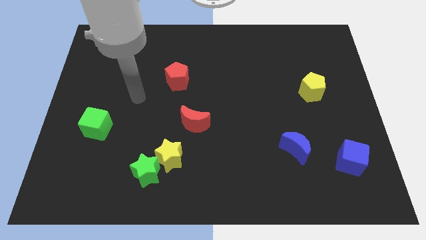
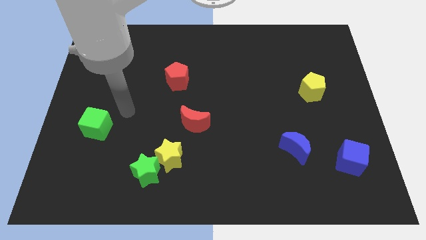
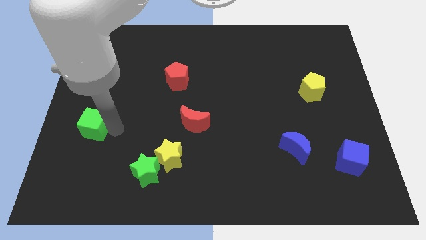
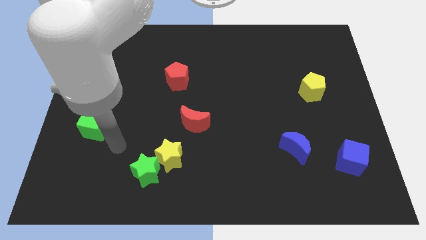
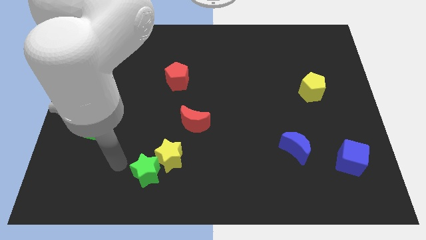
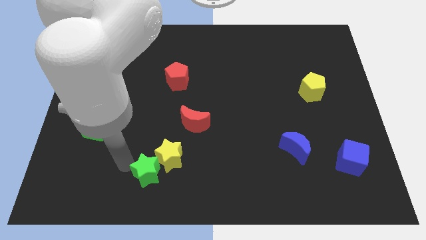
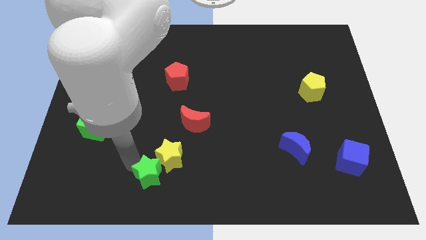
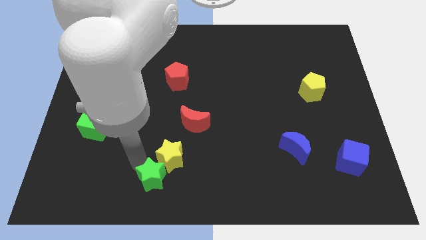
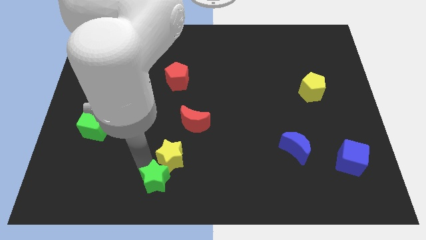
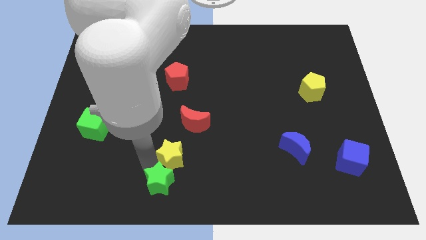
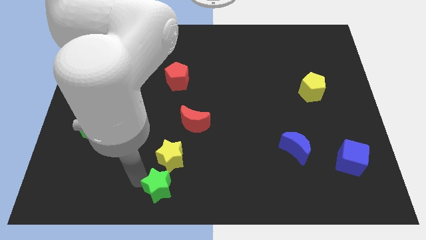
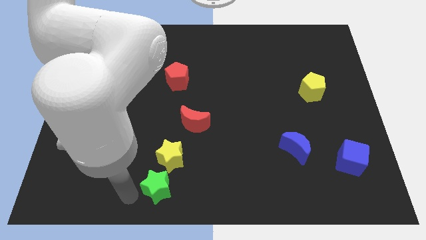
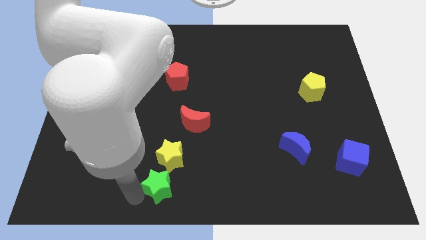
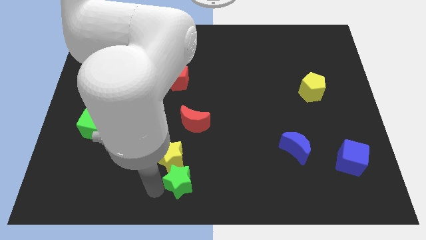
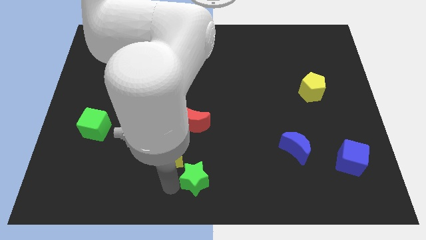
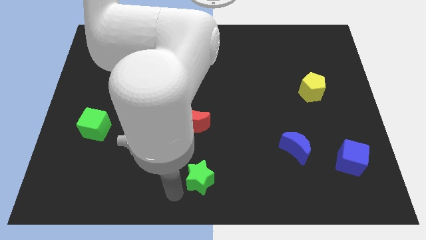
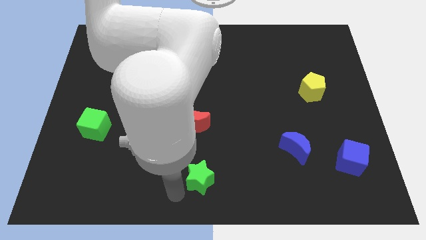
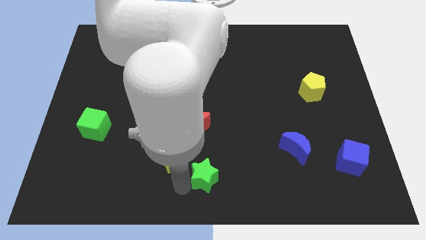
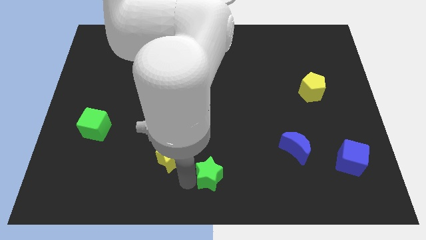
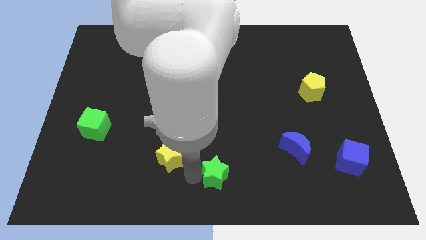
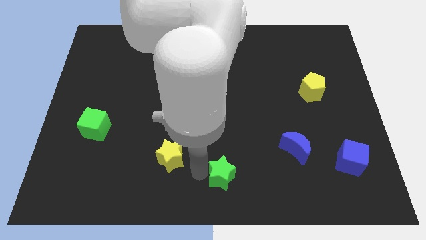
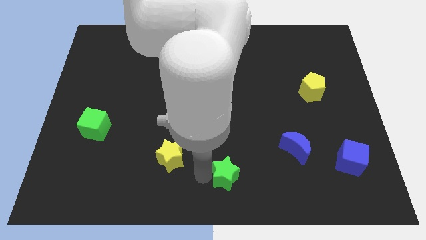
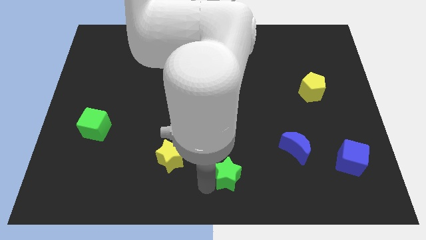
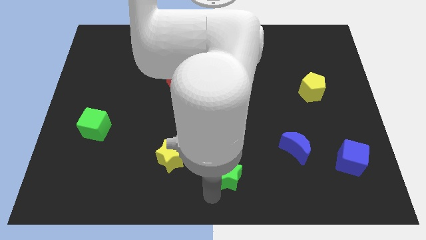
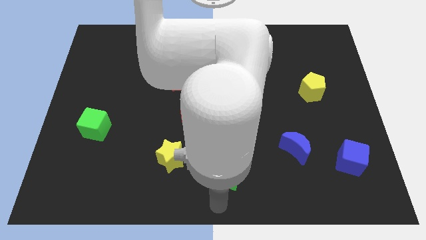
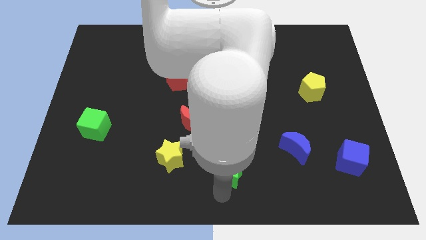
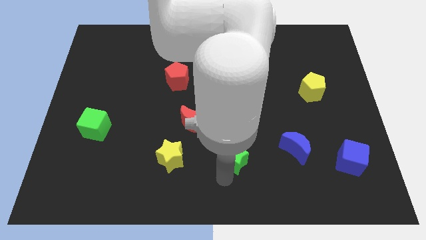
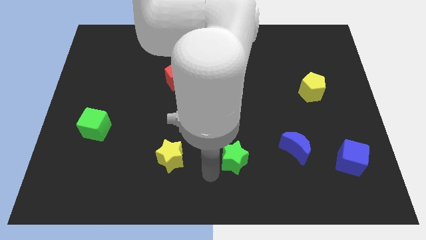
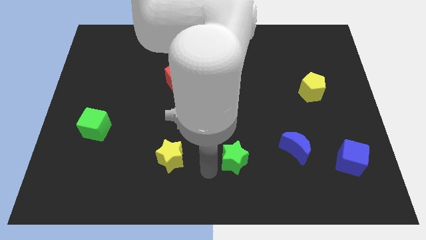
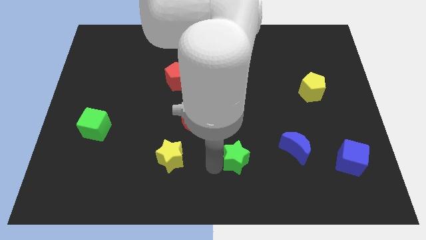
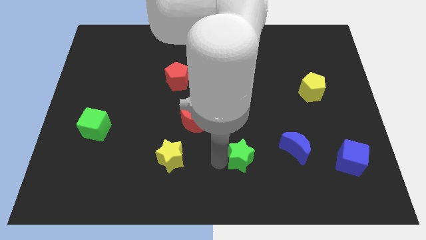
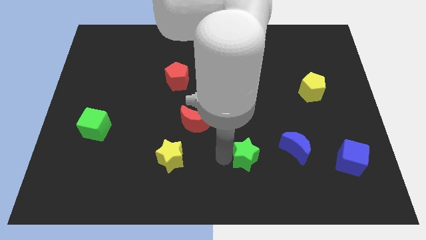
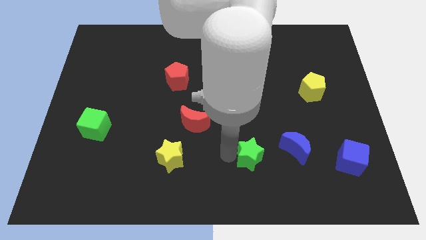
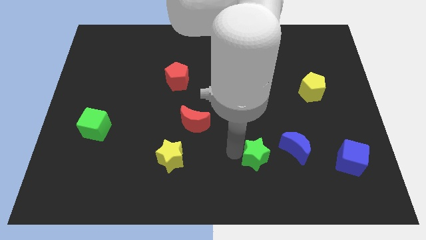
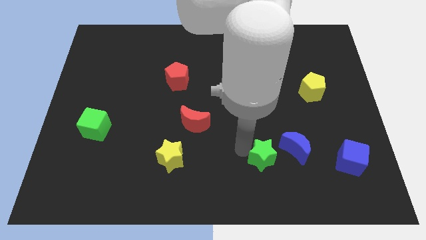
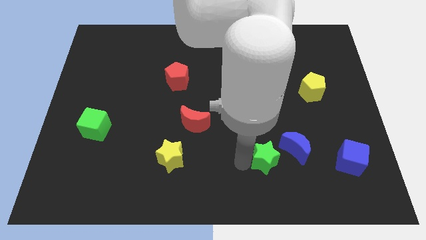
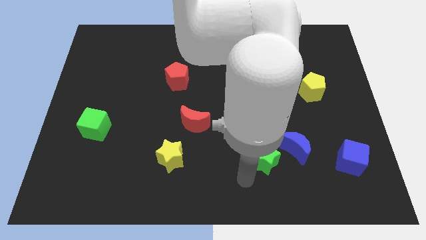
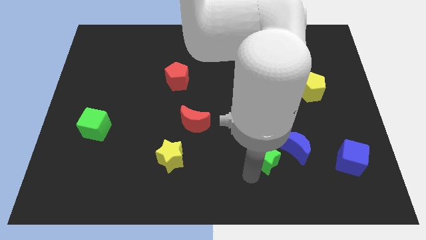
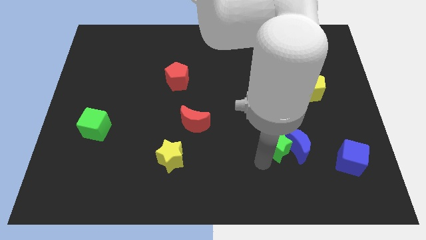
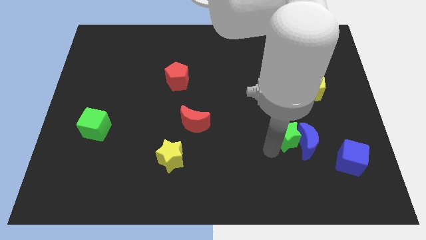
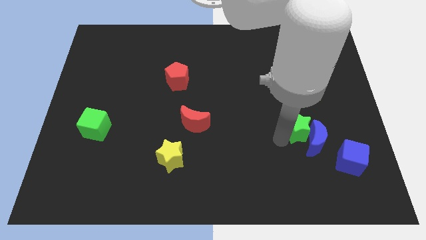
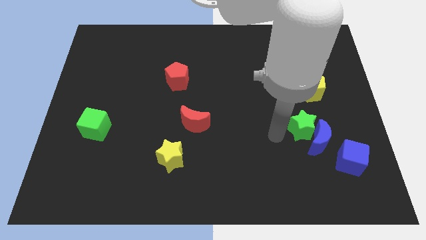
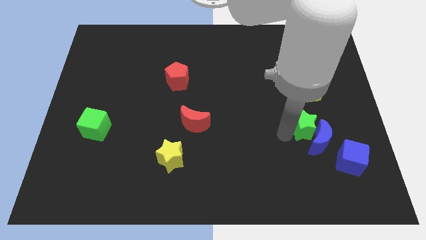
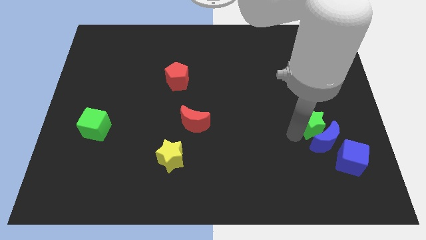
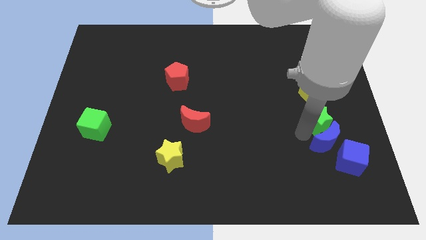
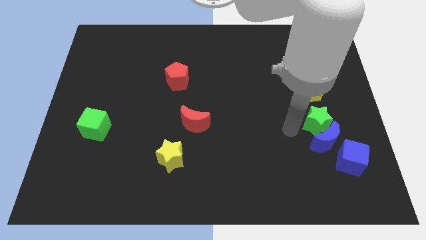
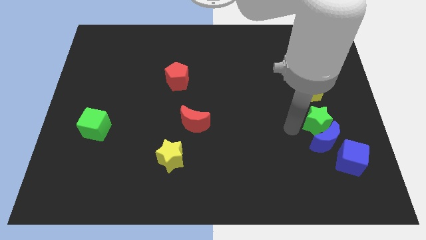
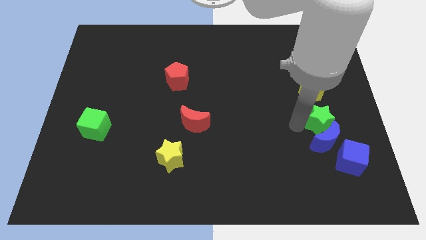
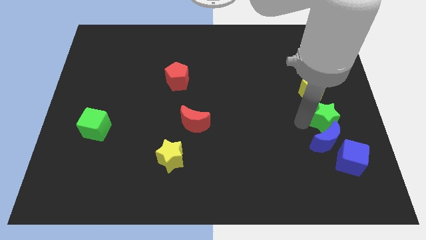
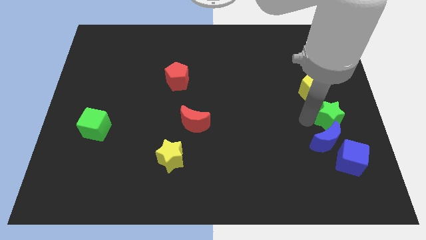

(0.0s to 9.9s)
move the green star to the right side of the board

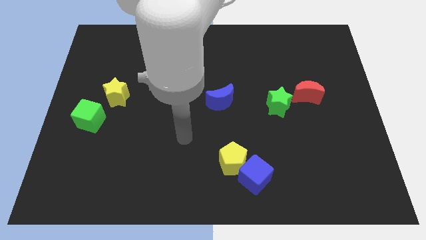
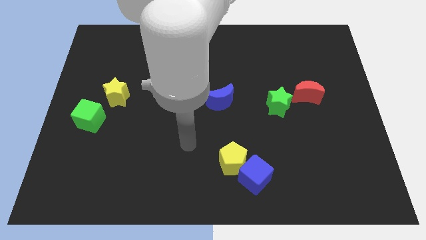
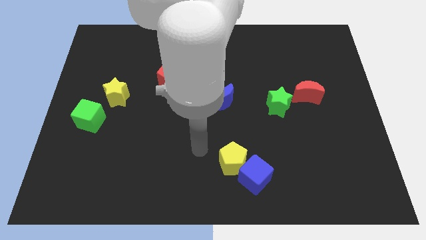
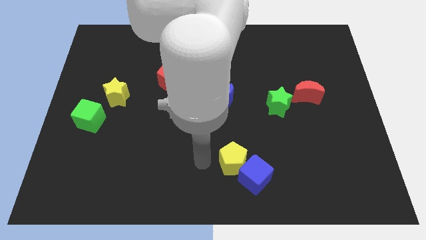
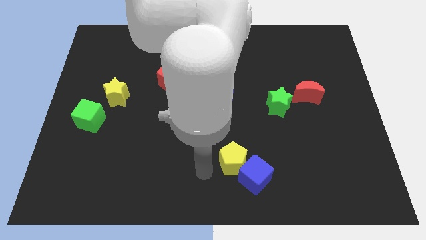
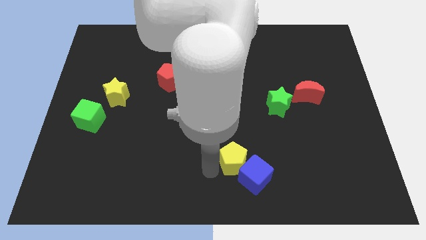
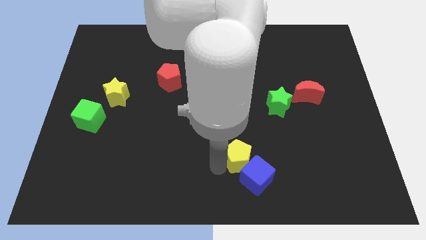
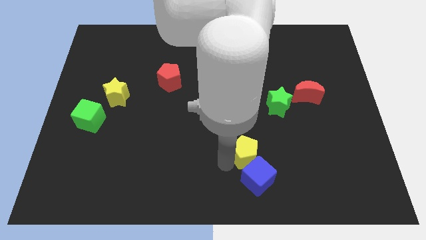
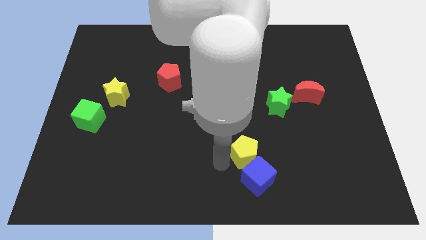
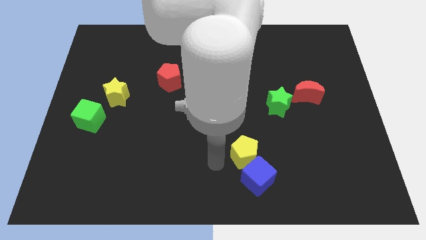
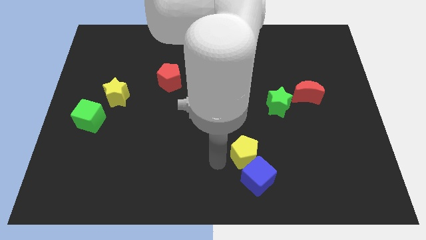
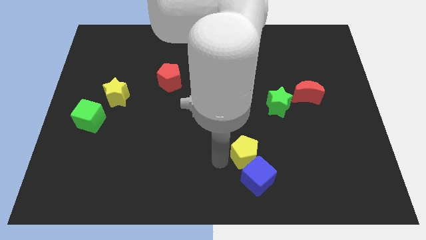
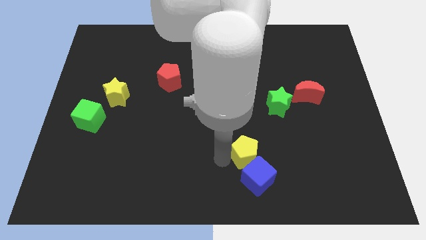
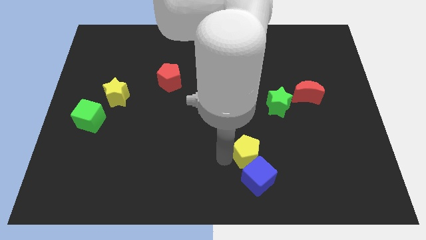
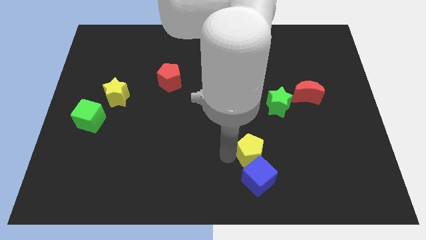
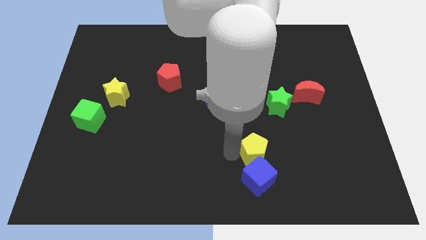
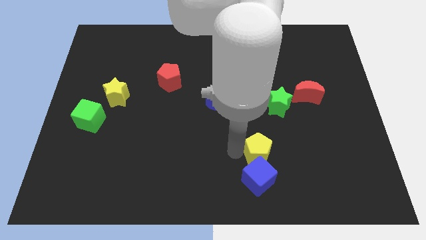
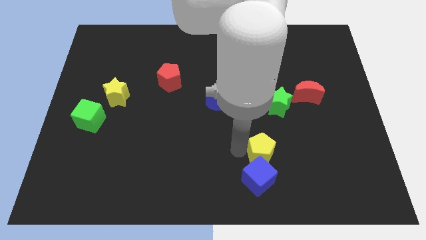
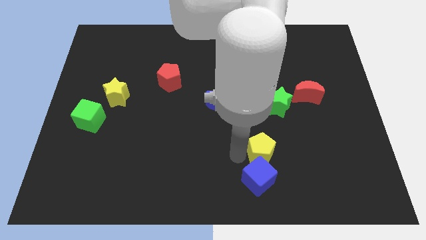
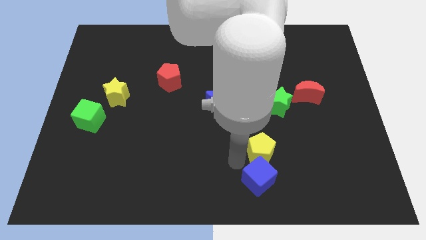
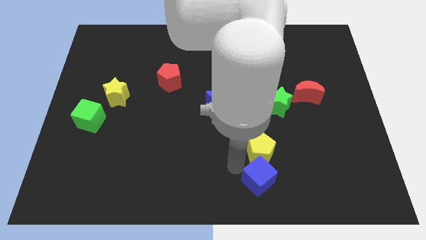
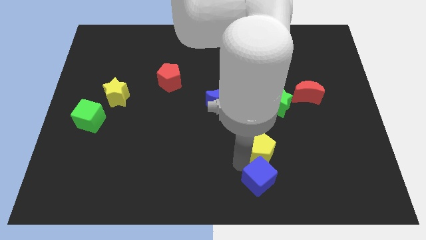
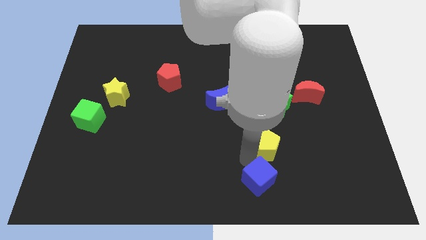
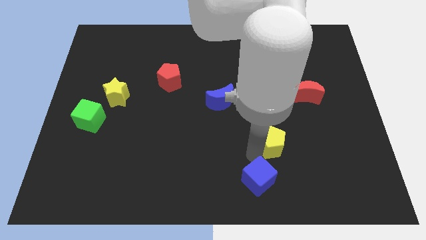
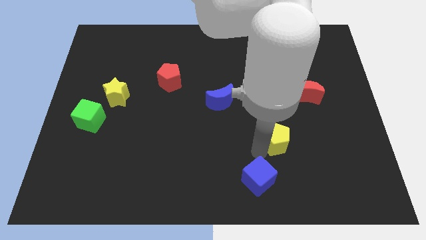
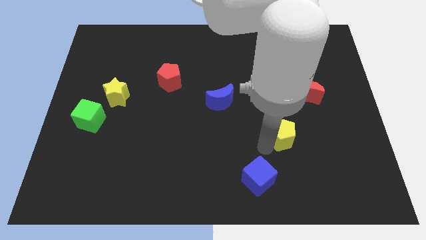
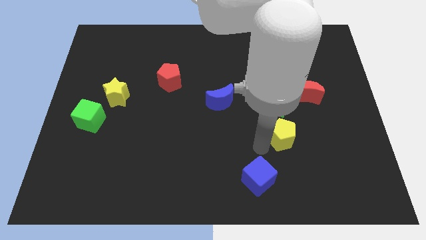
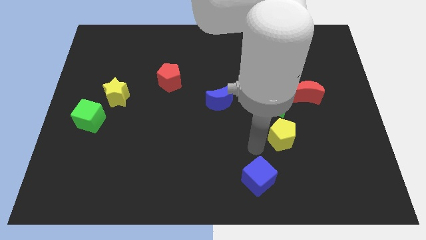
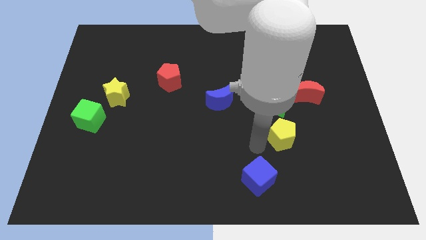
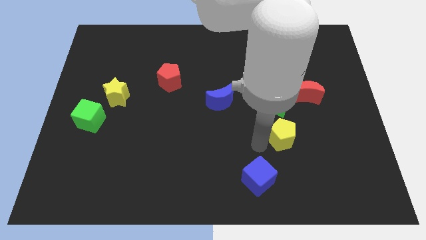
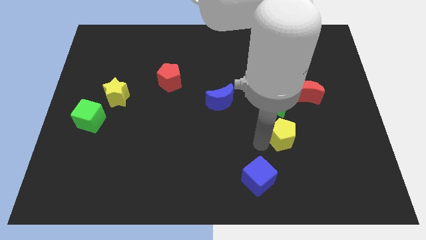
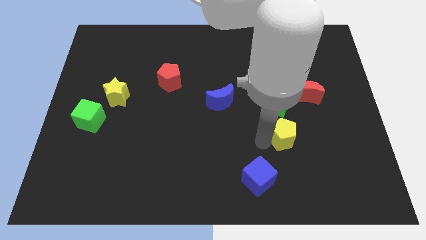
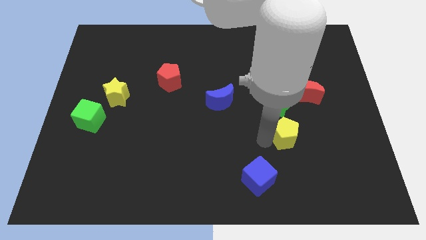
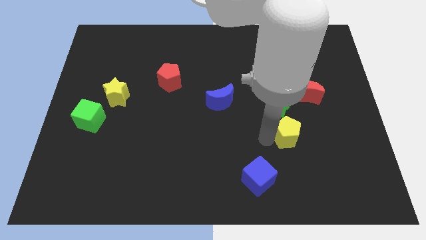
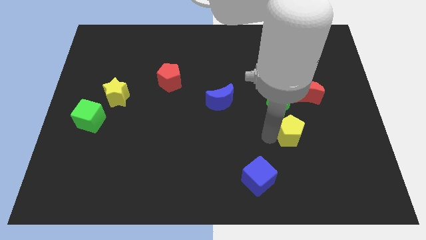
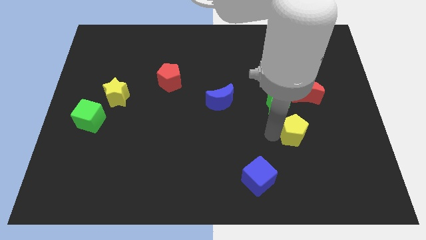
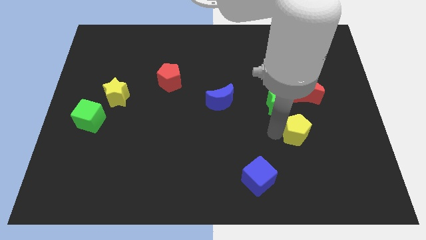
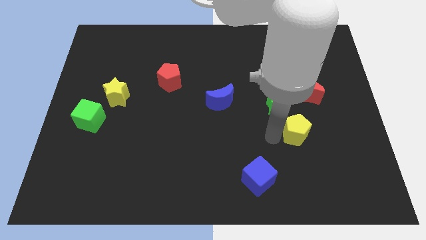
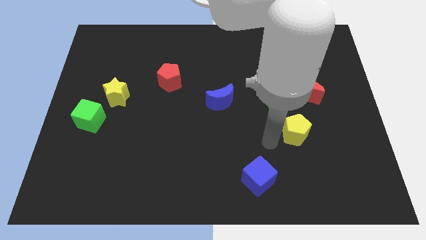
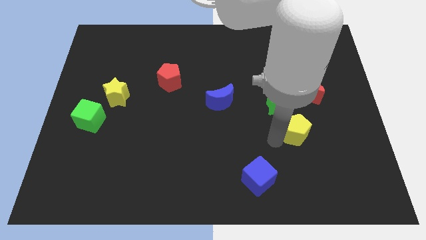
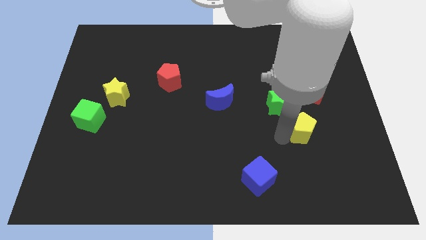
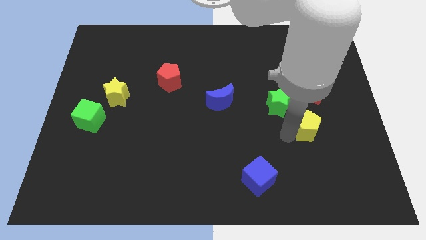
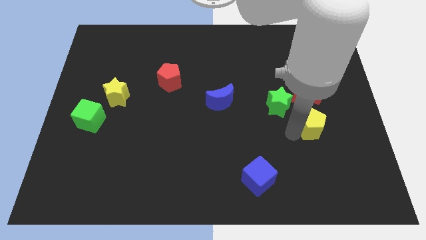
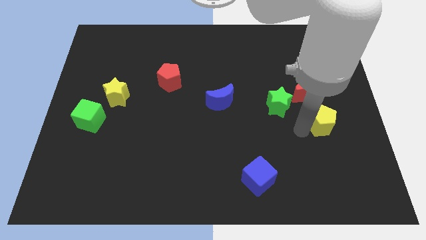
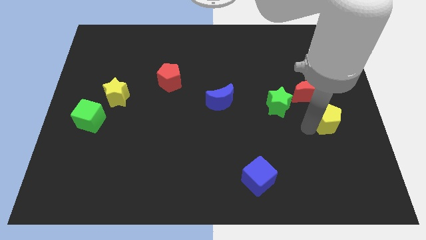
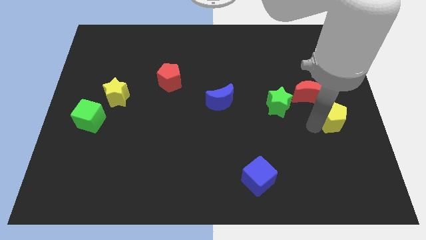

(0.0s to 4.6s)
push the yellow pentagon to the right side
